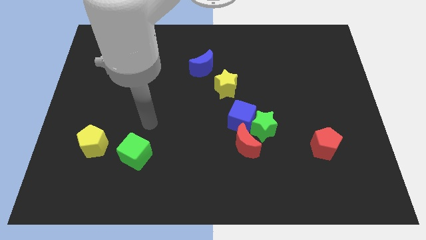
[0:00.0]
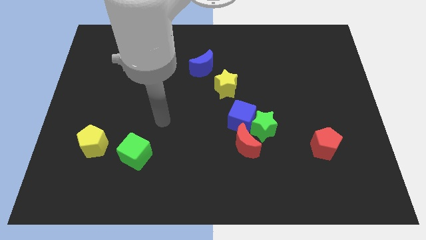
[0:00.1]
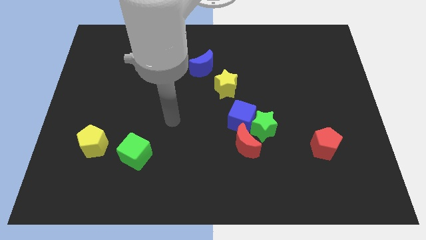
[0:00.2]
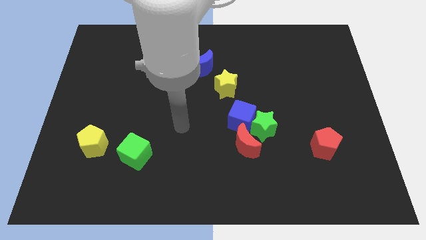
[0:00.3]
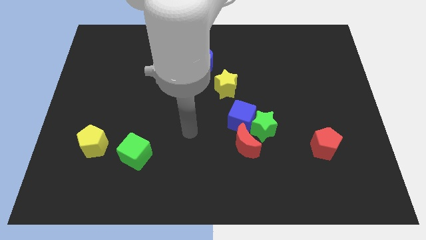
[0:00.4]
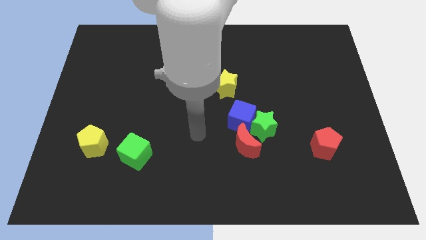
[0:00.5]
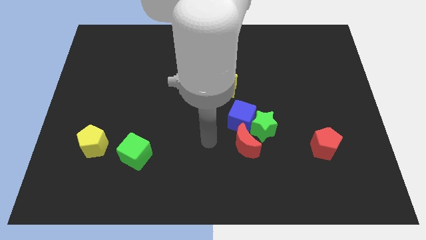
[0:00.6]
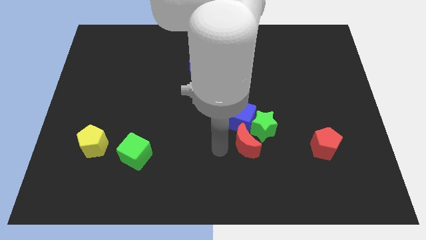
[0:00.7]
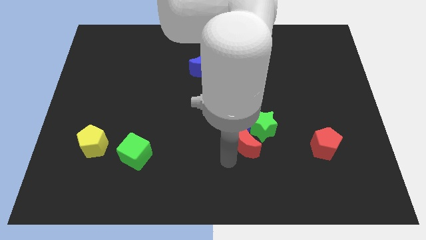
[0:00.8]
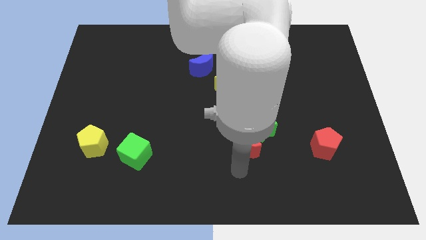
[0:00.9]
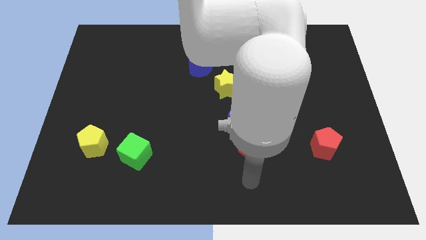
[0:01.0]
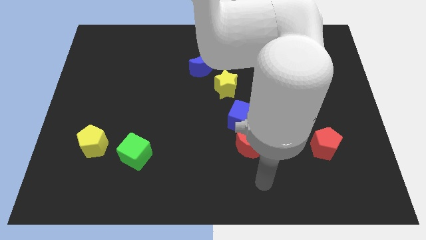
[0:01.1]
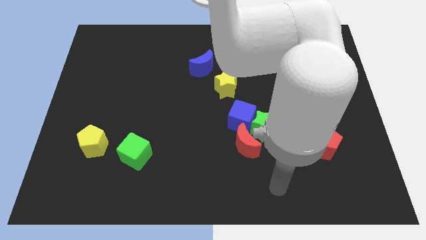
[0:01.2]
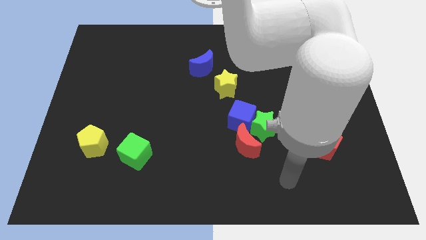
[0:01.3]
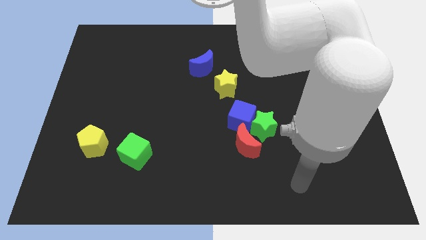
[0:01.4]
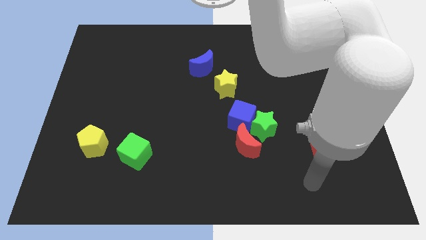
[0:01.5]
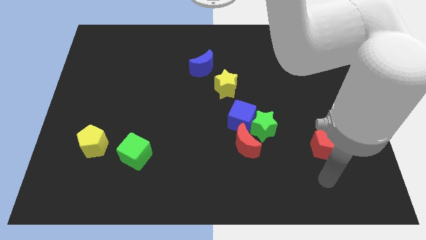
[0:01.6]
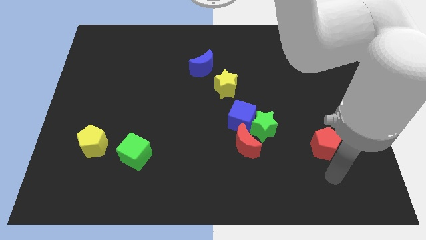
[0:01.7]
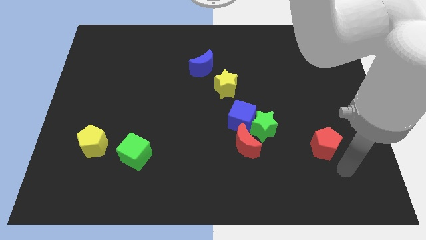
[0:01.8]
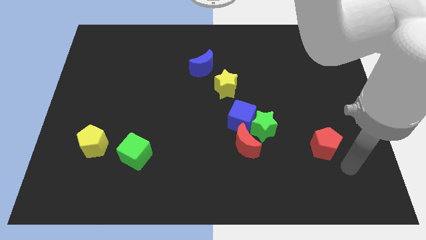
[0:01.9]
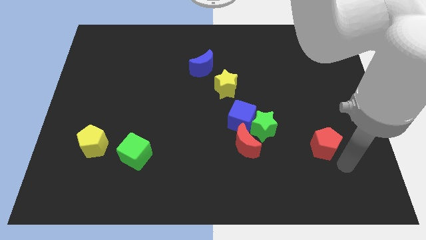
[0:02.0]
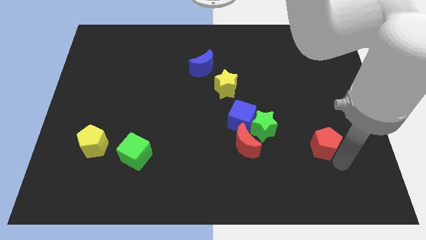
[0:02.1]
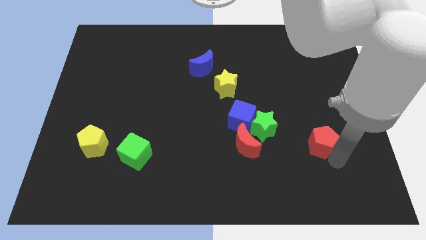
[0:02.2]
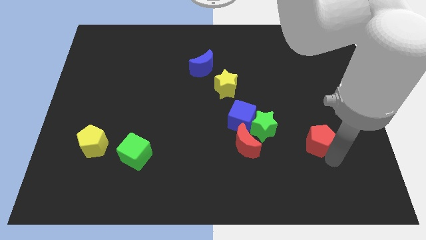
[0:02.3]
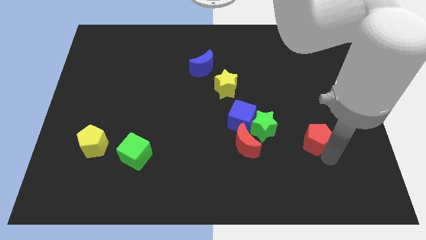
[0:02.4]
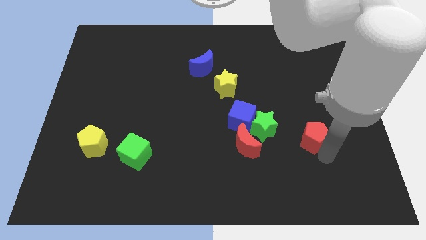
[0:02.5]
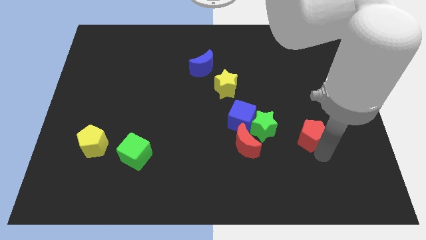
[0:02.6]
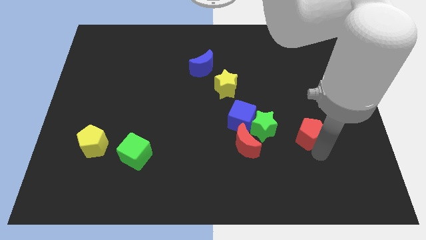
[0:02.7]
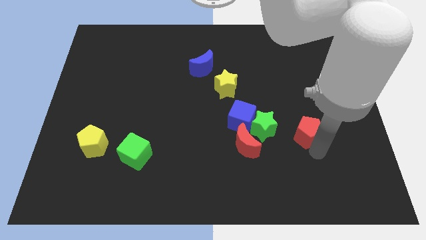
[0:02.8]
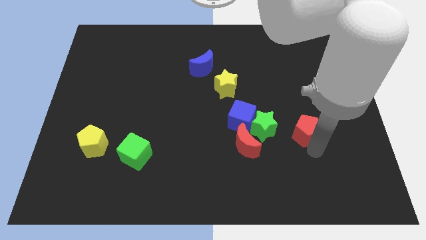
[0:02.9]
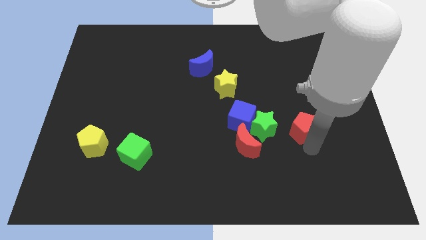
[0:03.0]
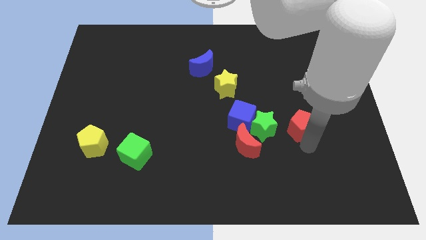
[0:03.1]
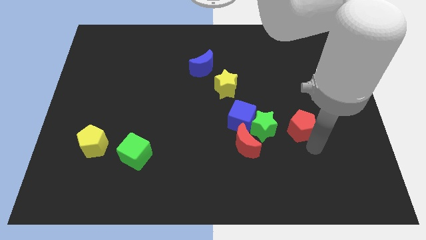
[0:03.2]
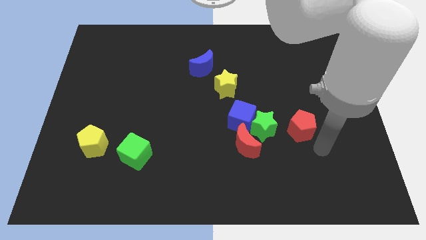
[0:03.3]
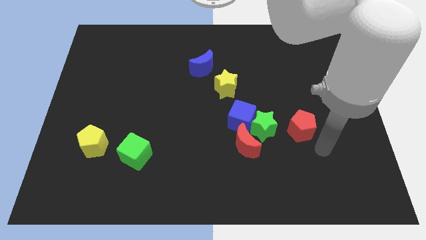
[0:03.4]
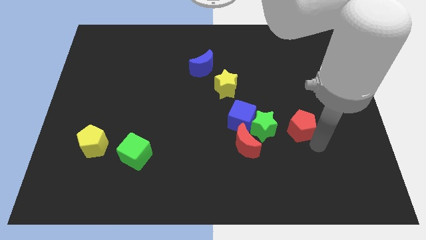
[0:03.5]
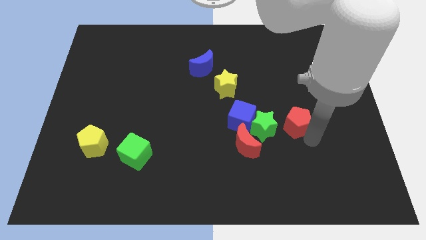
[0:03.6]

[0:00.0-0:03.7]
slightly push the red pentagon upwards and to the left diagonally

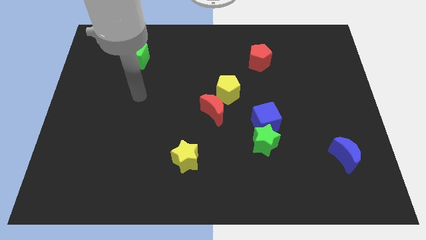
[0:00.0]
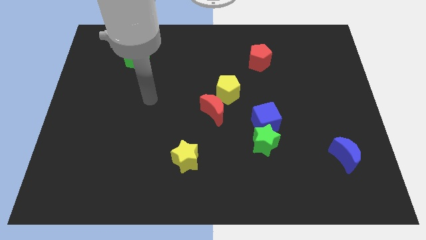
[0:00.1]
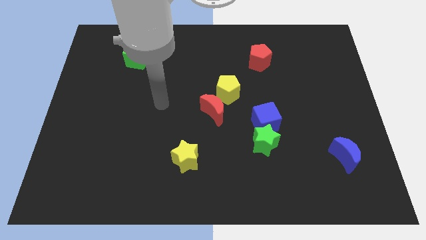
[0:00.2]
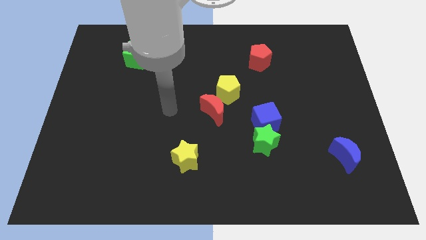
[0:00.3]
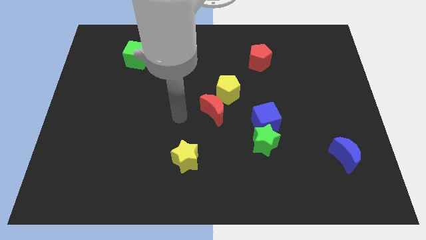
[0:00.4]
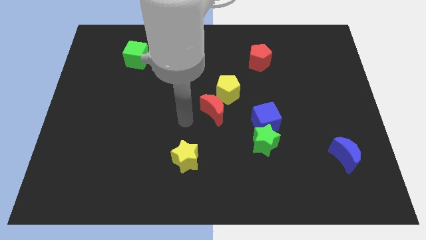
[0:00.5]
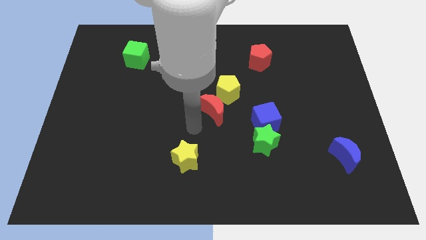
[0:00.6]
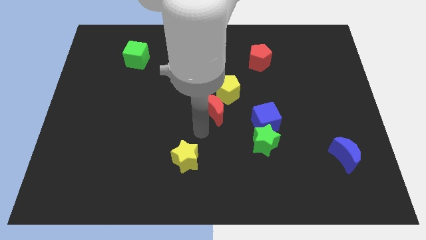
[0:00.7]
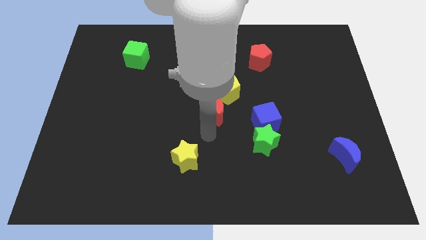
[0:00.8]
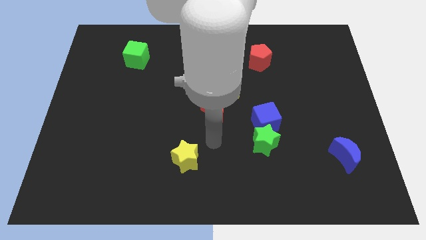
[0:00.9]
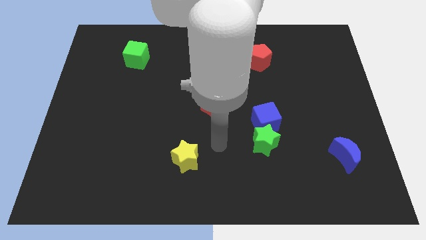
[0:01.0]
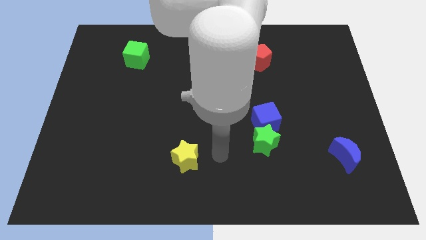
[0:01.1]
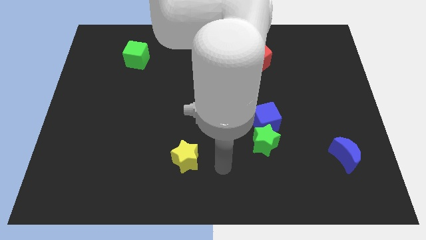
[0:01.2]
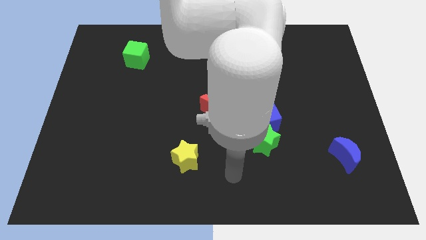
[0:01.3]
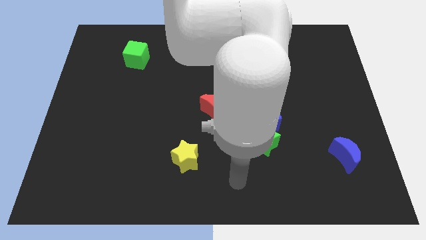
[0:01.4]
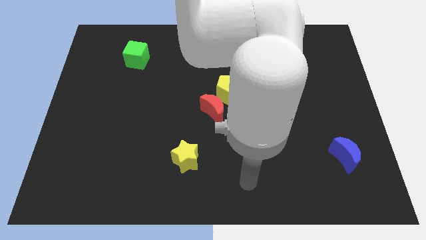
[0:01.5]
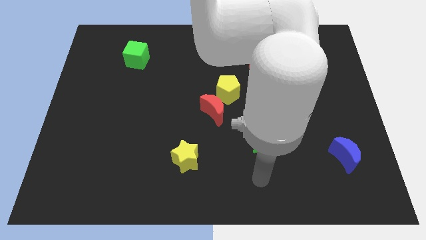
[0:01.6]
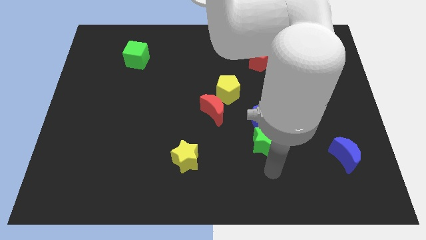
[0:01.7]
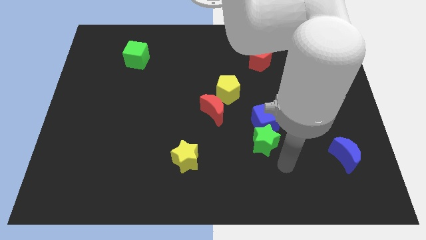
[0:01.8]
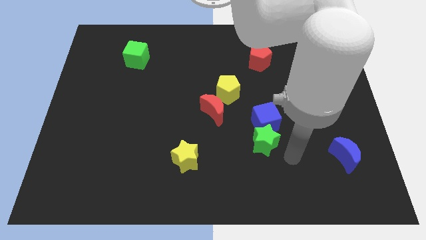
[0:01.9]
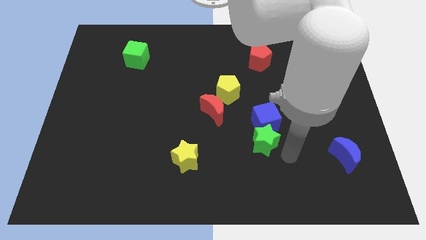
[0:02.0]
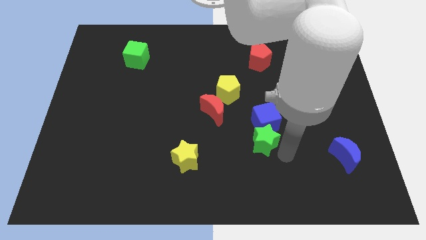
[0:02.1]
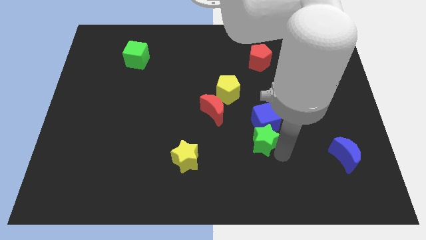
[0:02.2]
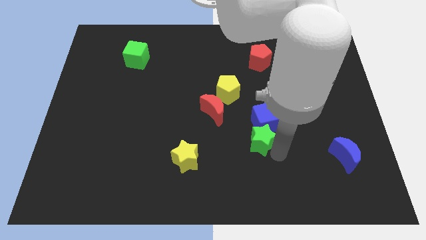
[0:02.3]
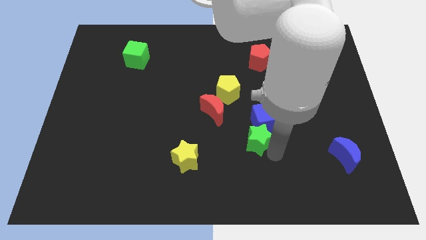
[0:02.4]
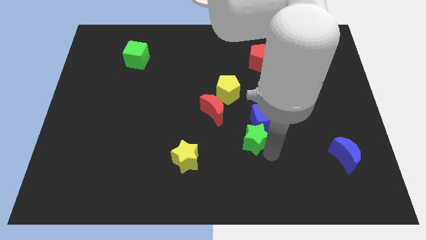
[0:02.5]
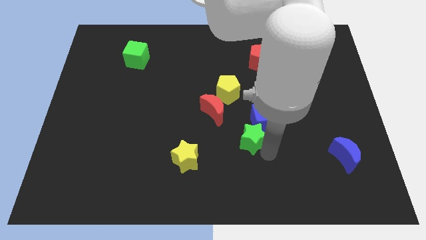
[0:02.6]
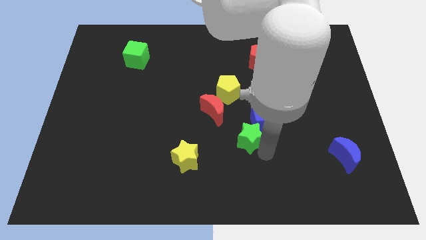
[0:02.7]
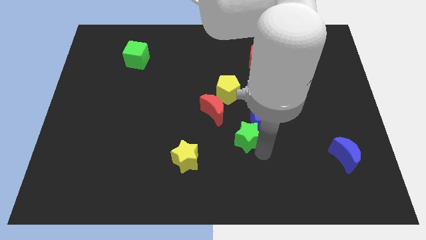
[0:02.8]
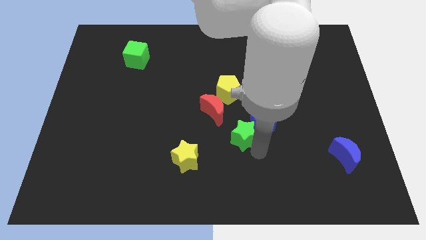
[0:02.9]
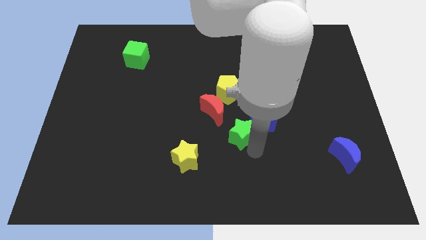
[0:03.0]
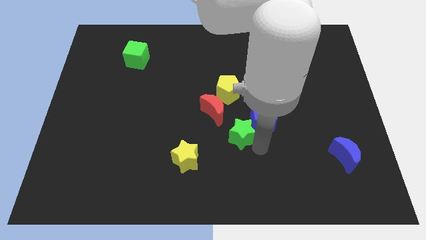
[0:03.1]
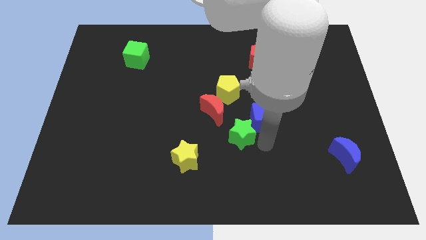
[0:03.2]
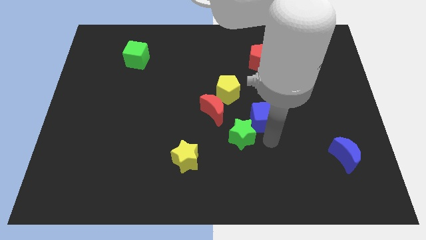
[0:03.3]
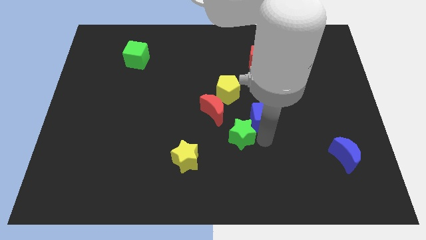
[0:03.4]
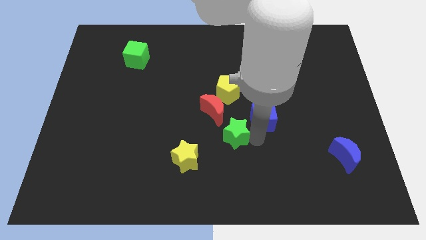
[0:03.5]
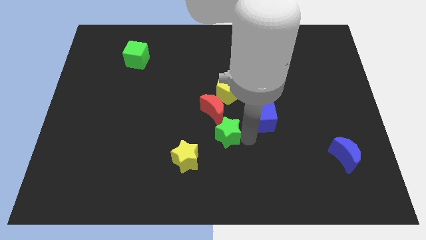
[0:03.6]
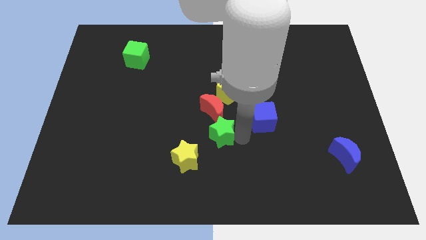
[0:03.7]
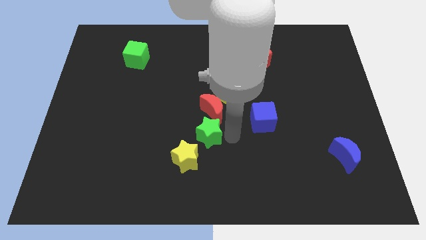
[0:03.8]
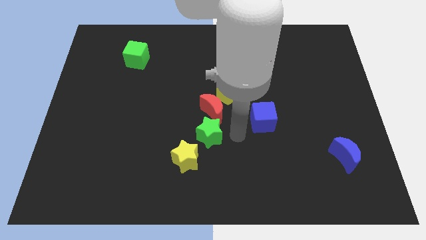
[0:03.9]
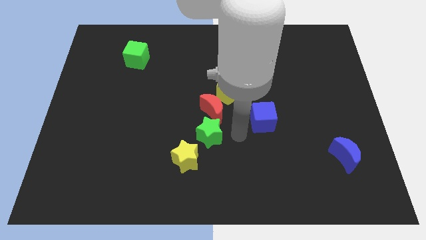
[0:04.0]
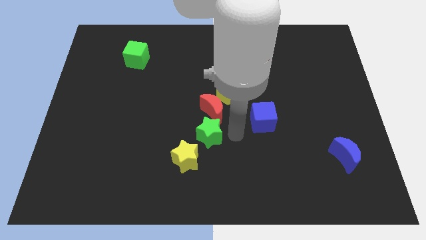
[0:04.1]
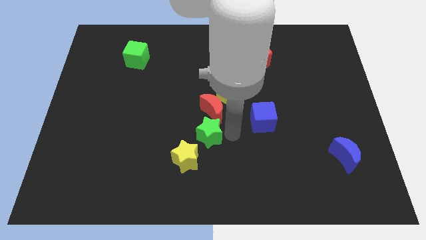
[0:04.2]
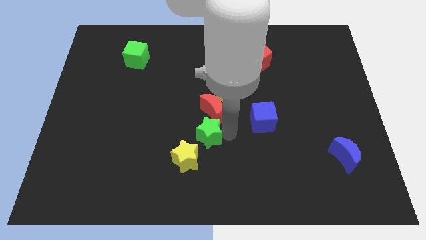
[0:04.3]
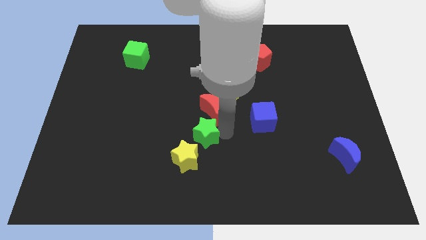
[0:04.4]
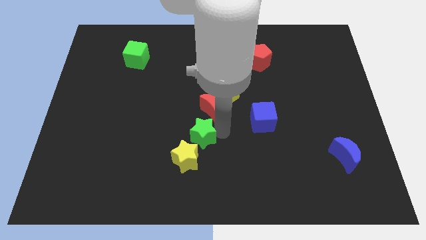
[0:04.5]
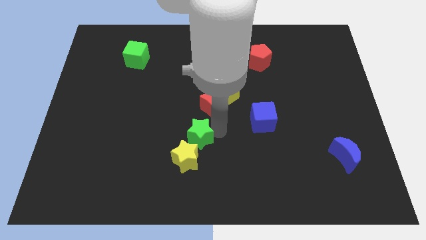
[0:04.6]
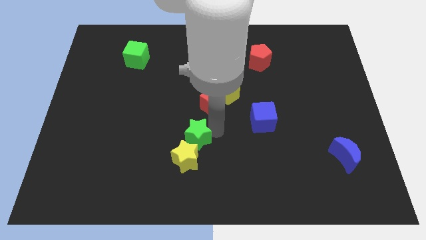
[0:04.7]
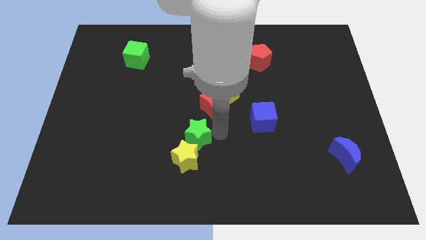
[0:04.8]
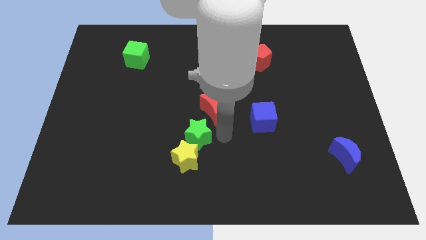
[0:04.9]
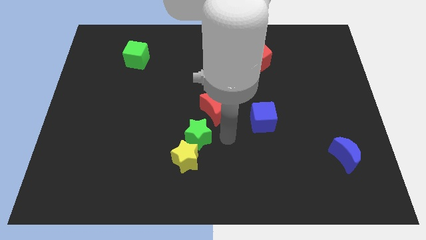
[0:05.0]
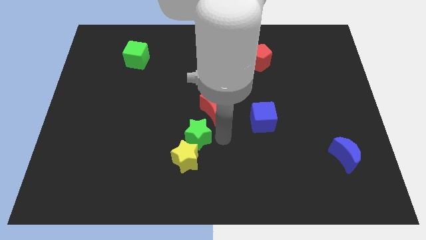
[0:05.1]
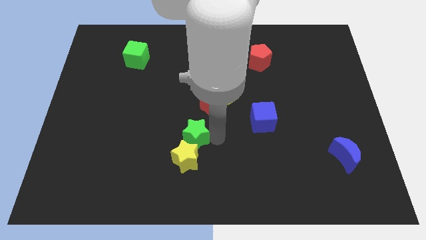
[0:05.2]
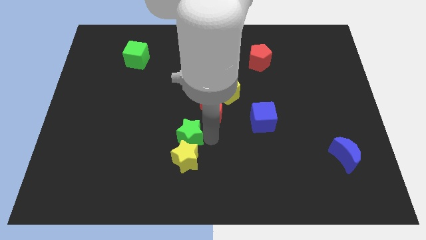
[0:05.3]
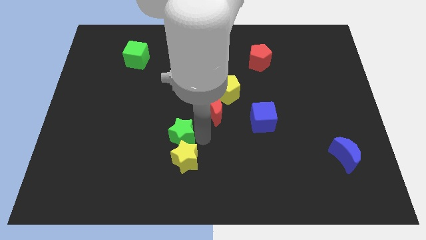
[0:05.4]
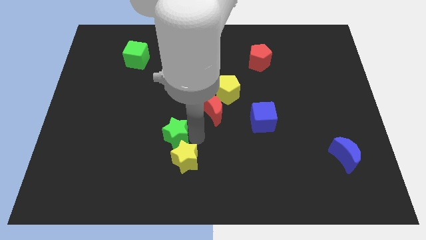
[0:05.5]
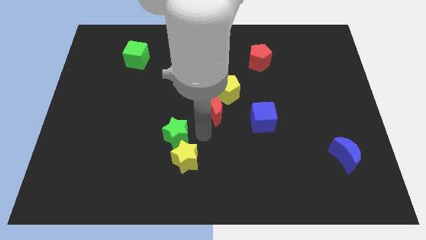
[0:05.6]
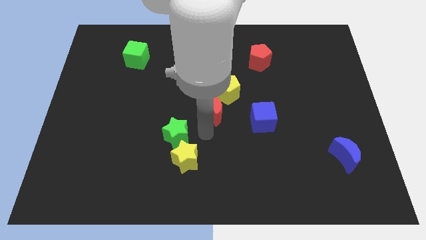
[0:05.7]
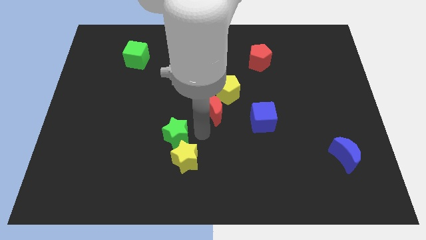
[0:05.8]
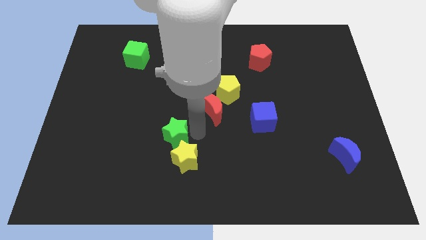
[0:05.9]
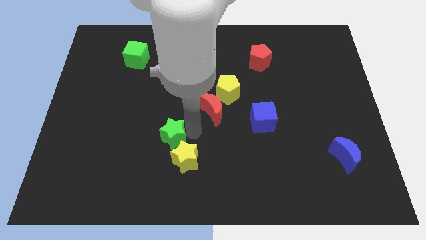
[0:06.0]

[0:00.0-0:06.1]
move the green star left
